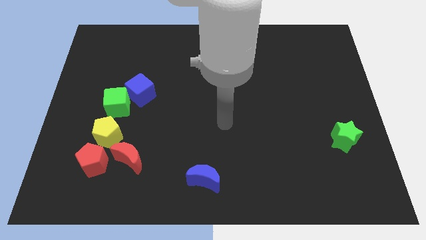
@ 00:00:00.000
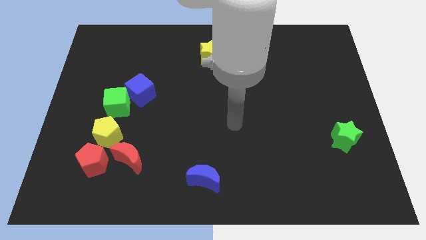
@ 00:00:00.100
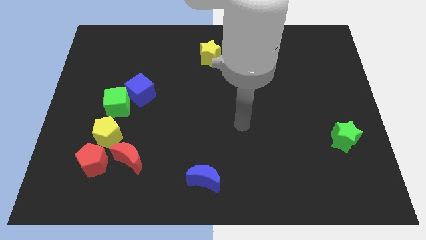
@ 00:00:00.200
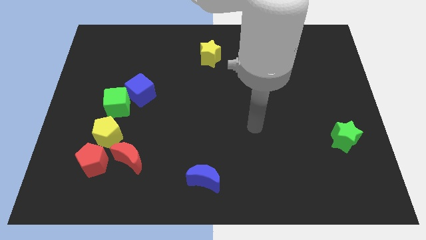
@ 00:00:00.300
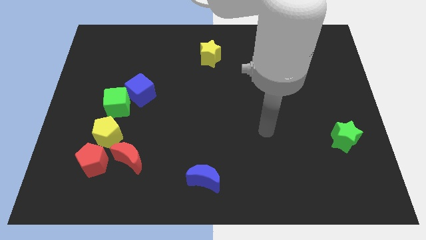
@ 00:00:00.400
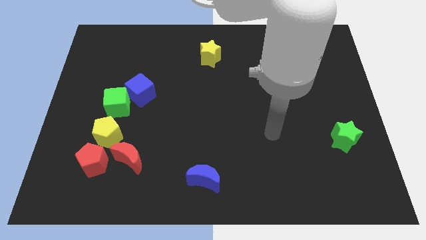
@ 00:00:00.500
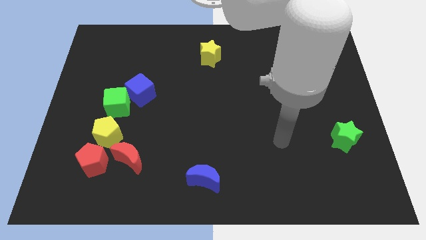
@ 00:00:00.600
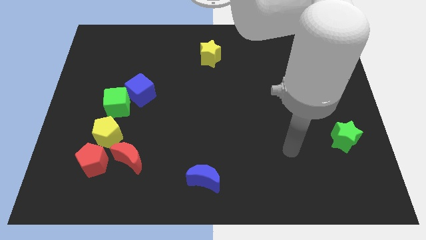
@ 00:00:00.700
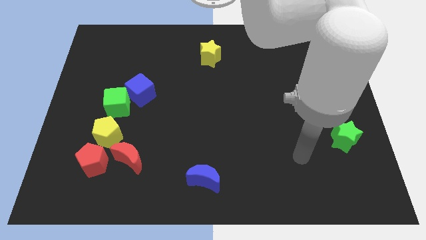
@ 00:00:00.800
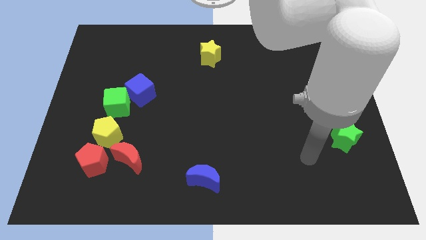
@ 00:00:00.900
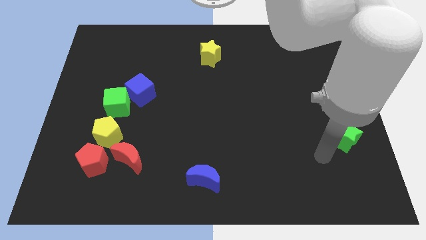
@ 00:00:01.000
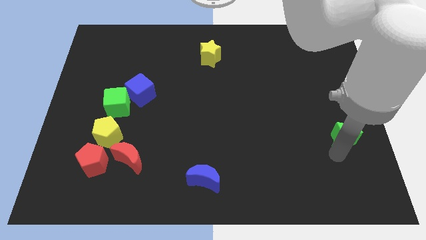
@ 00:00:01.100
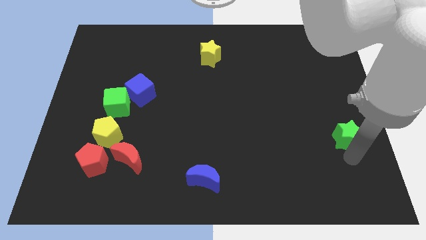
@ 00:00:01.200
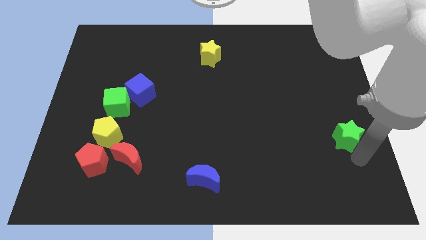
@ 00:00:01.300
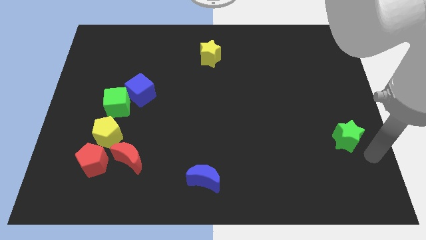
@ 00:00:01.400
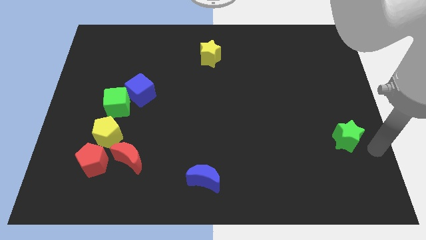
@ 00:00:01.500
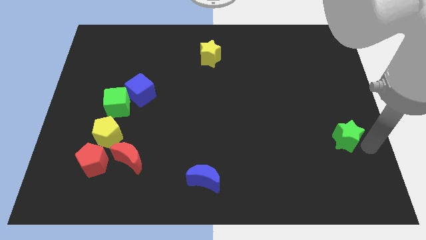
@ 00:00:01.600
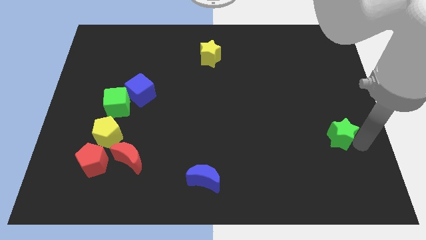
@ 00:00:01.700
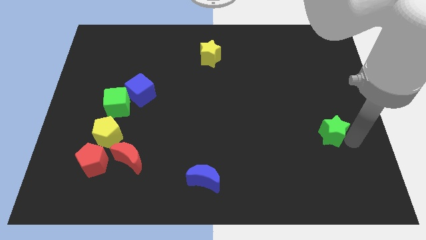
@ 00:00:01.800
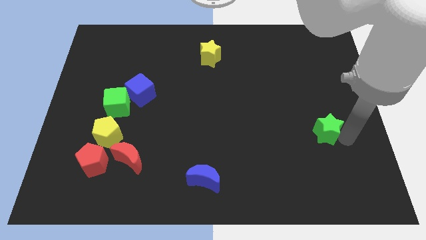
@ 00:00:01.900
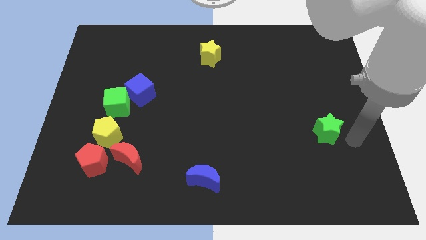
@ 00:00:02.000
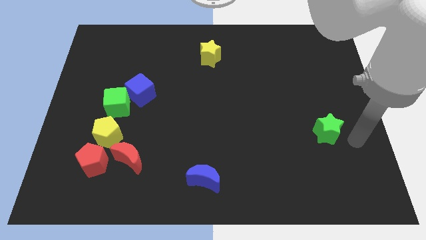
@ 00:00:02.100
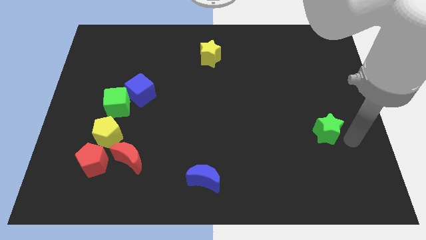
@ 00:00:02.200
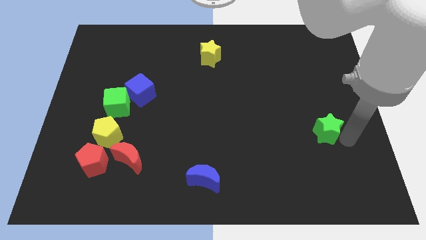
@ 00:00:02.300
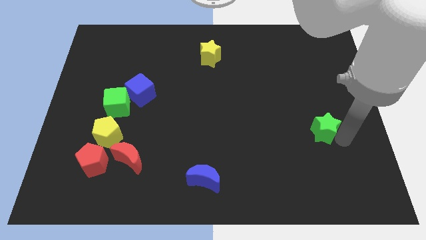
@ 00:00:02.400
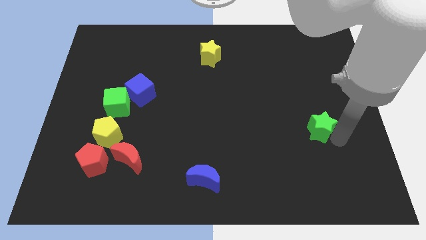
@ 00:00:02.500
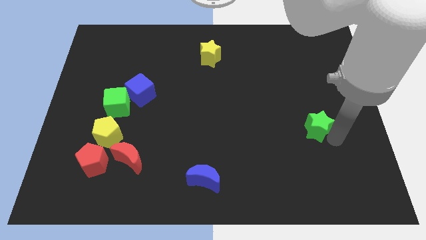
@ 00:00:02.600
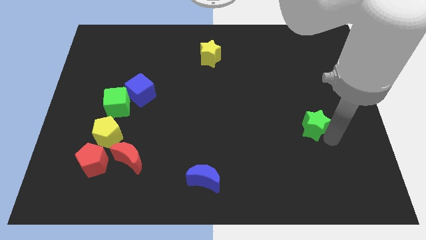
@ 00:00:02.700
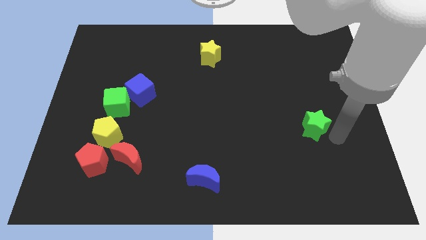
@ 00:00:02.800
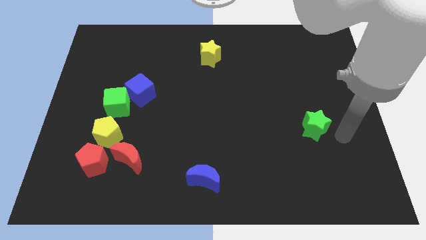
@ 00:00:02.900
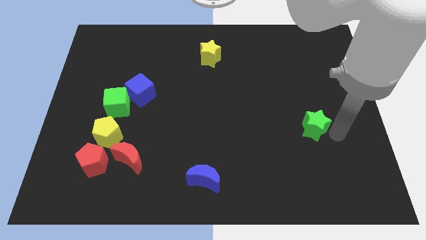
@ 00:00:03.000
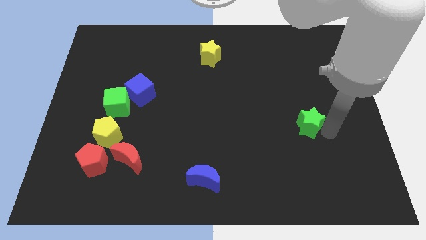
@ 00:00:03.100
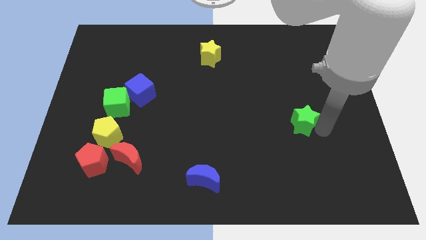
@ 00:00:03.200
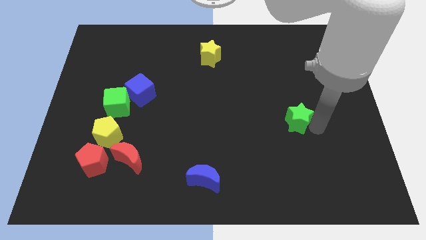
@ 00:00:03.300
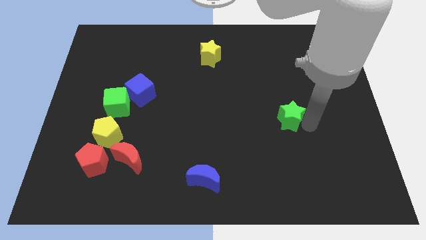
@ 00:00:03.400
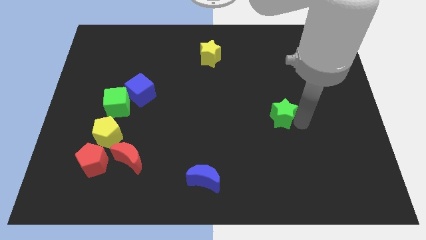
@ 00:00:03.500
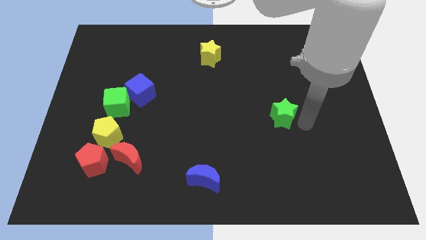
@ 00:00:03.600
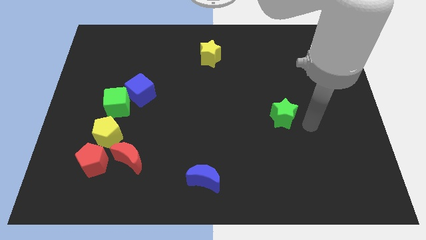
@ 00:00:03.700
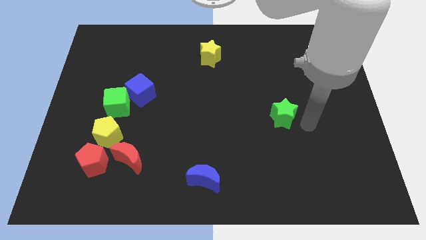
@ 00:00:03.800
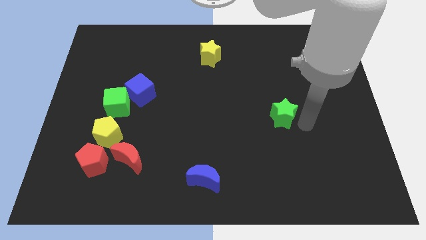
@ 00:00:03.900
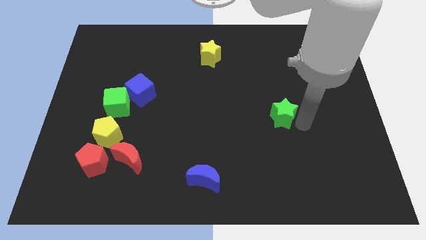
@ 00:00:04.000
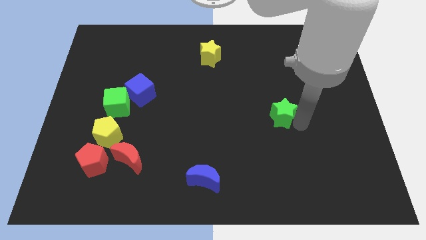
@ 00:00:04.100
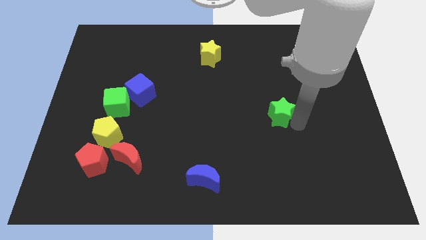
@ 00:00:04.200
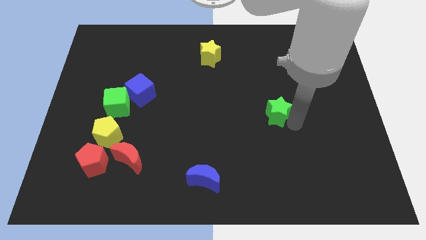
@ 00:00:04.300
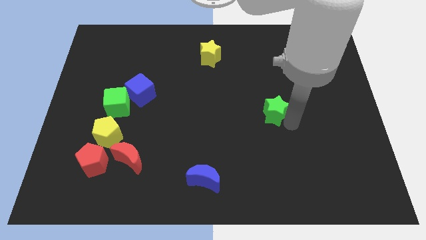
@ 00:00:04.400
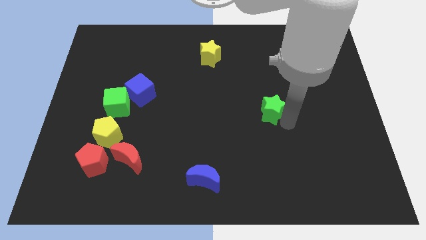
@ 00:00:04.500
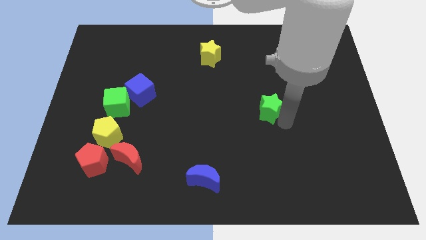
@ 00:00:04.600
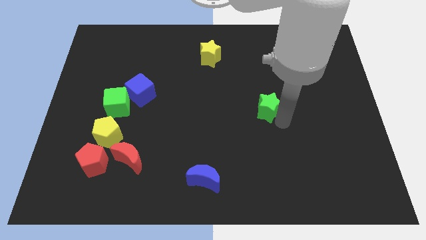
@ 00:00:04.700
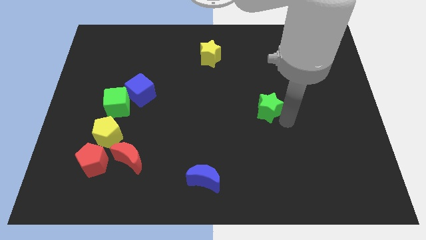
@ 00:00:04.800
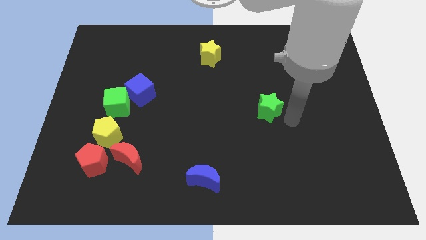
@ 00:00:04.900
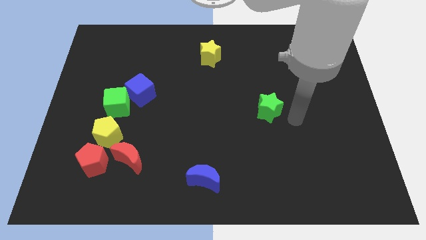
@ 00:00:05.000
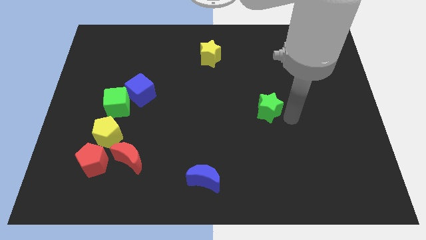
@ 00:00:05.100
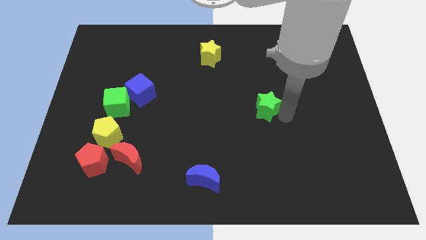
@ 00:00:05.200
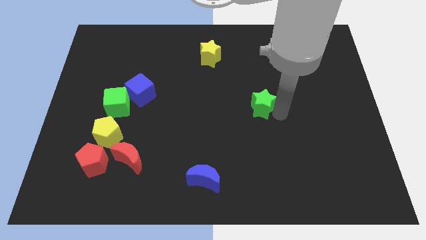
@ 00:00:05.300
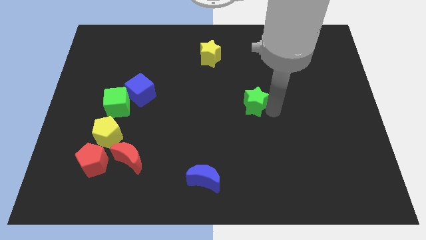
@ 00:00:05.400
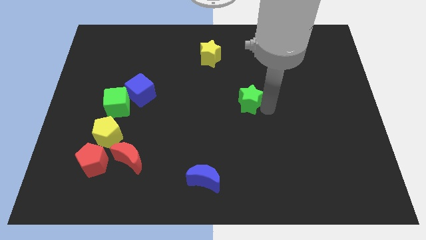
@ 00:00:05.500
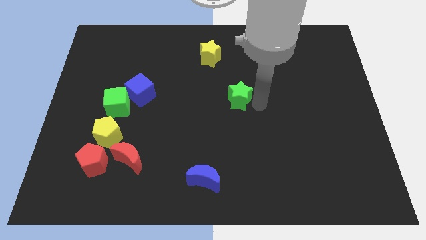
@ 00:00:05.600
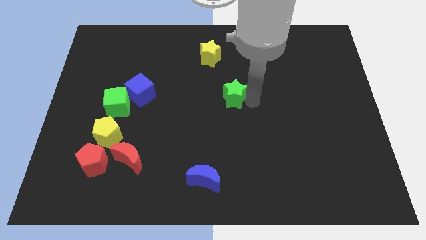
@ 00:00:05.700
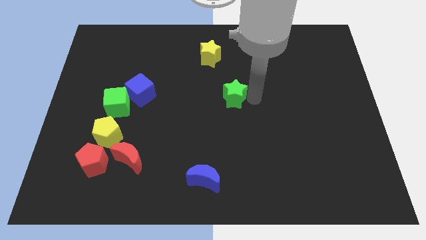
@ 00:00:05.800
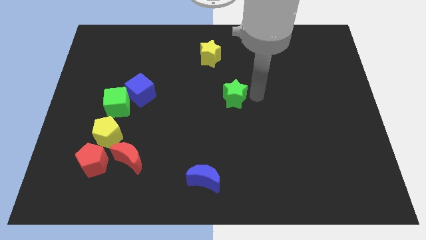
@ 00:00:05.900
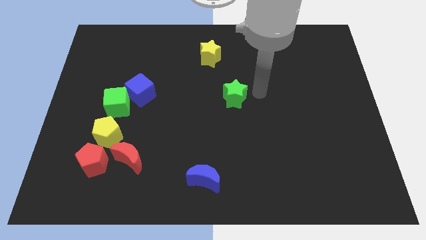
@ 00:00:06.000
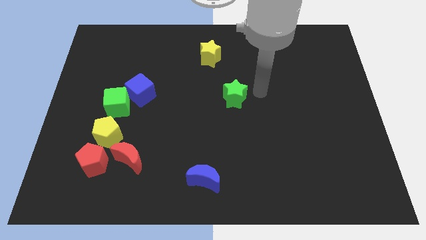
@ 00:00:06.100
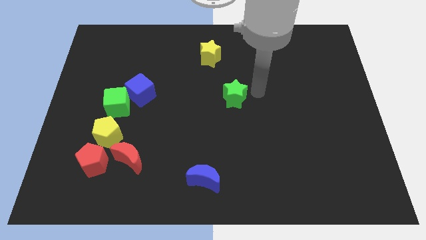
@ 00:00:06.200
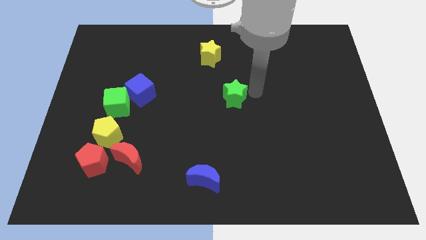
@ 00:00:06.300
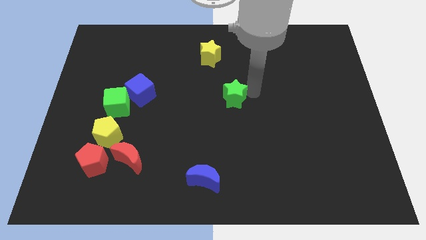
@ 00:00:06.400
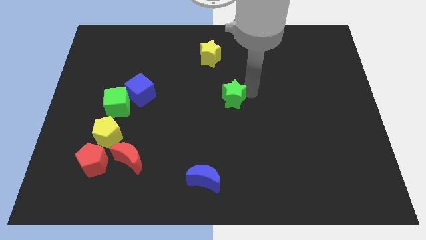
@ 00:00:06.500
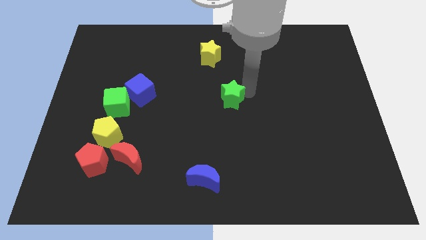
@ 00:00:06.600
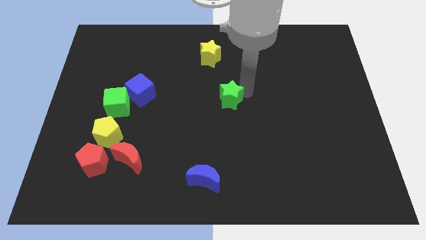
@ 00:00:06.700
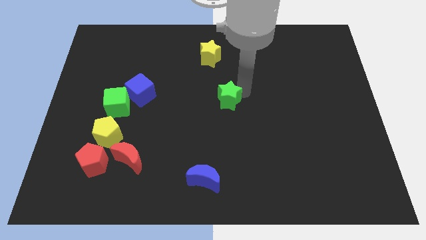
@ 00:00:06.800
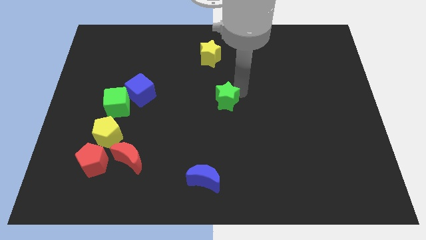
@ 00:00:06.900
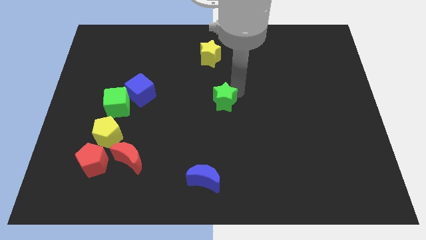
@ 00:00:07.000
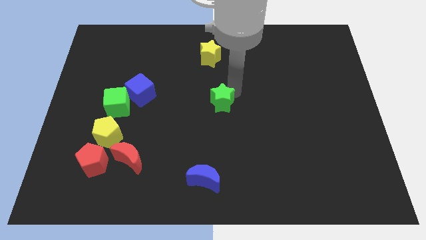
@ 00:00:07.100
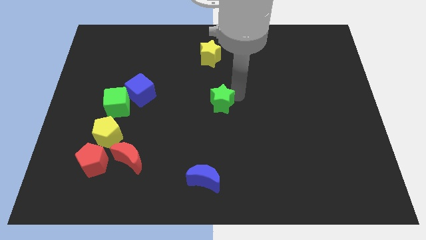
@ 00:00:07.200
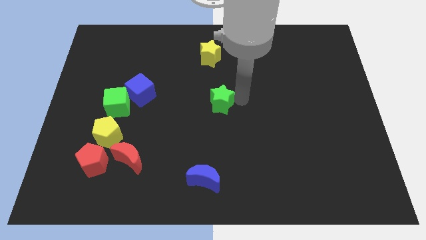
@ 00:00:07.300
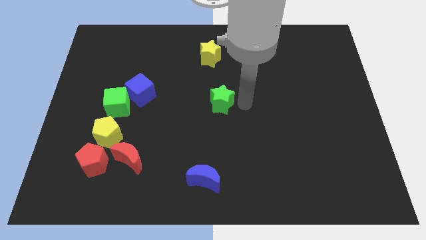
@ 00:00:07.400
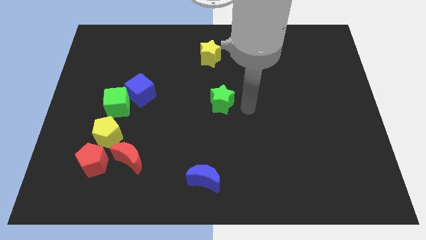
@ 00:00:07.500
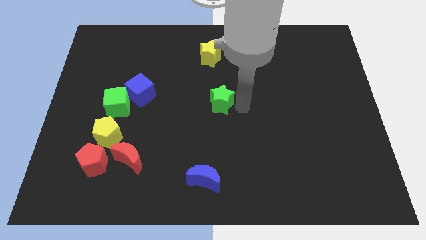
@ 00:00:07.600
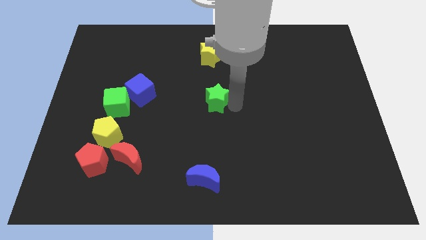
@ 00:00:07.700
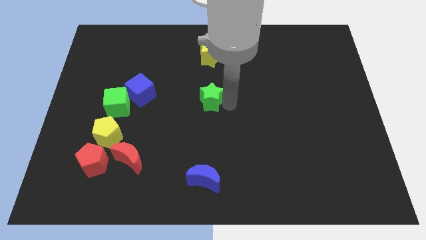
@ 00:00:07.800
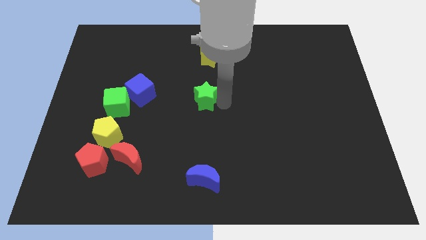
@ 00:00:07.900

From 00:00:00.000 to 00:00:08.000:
move the green star to the right of the blue cube
